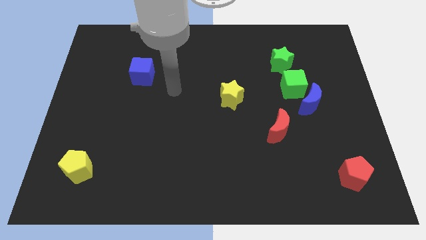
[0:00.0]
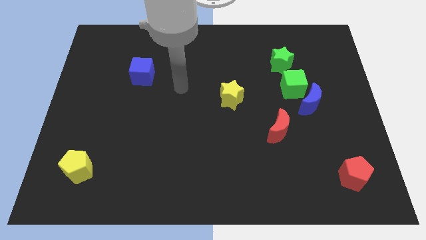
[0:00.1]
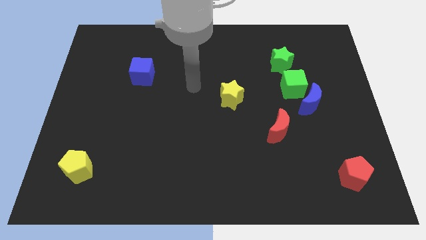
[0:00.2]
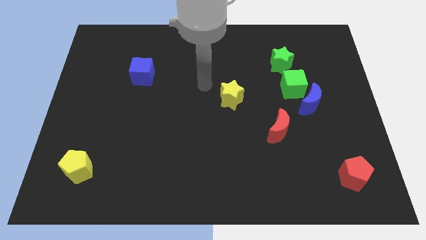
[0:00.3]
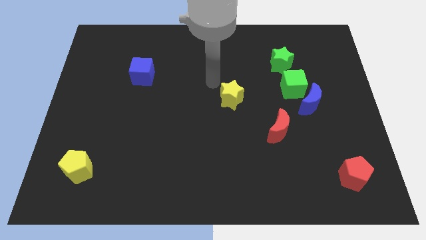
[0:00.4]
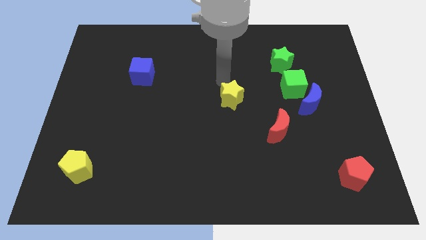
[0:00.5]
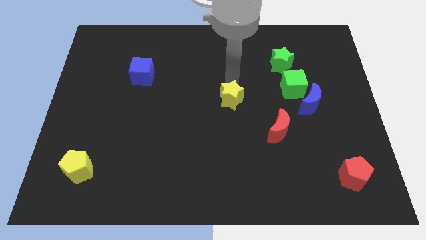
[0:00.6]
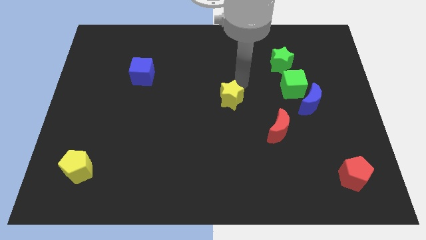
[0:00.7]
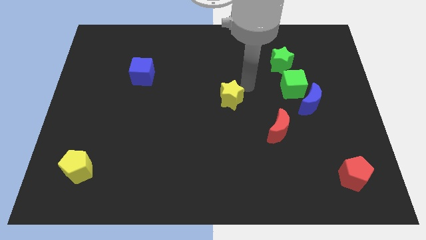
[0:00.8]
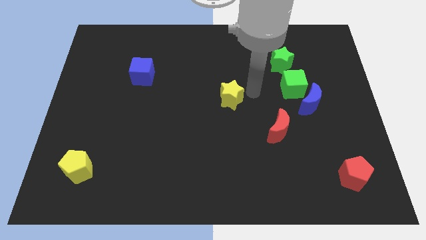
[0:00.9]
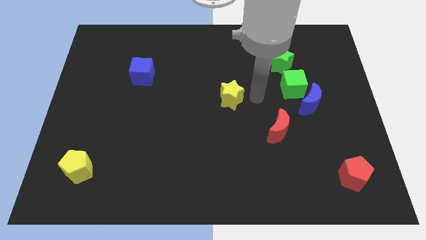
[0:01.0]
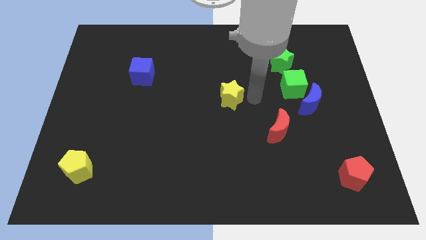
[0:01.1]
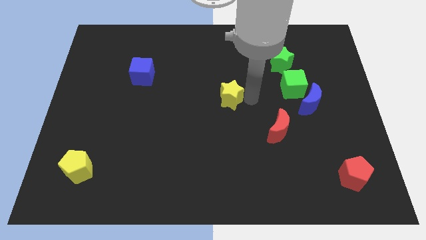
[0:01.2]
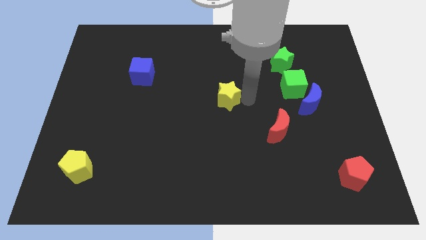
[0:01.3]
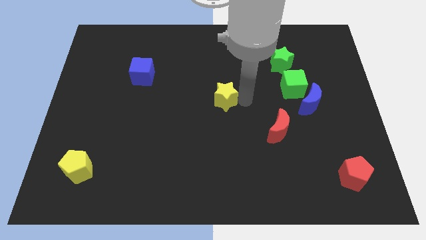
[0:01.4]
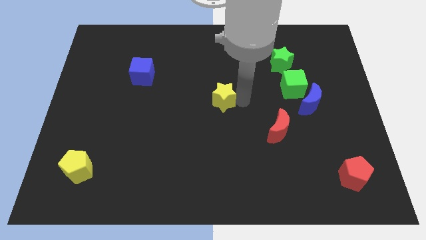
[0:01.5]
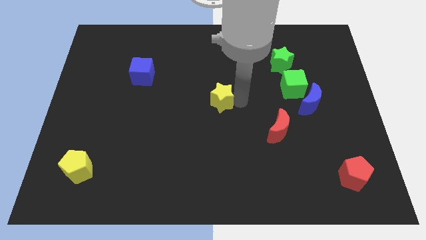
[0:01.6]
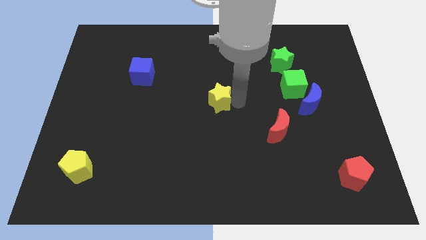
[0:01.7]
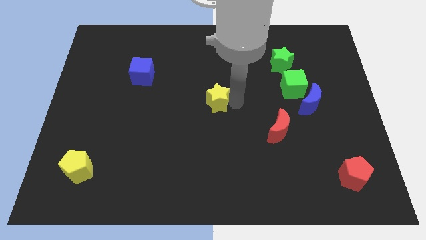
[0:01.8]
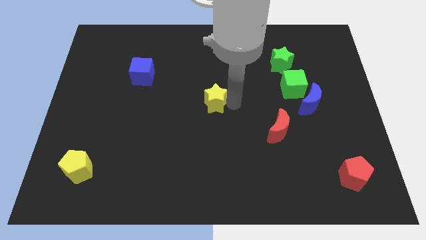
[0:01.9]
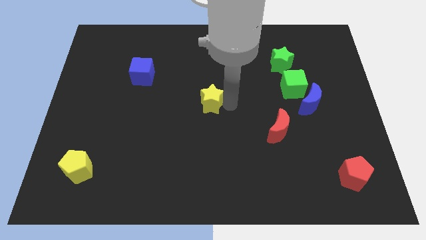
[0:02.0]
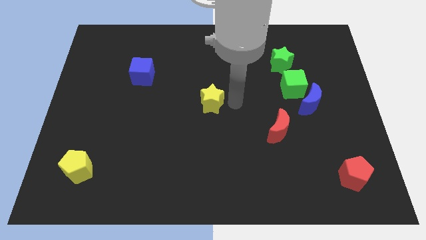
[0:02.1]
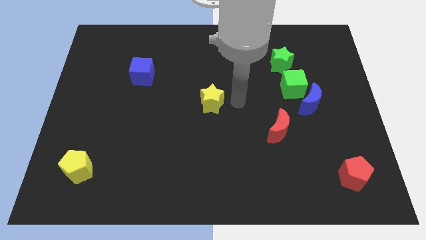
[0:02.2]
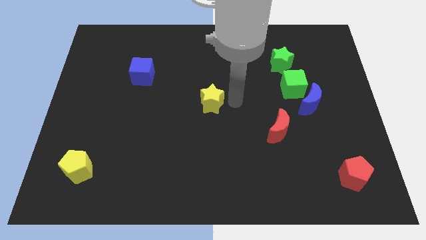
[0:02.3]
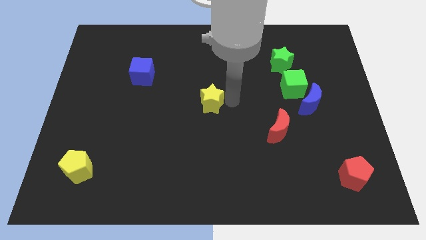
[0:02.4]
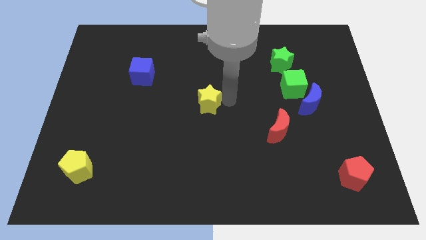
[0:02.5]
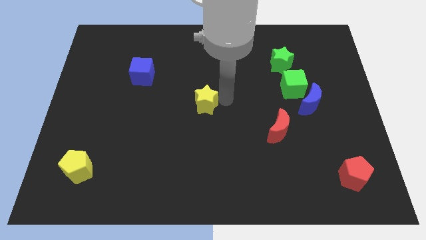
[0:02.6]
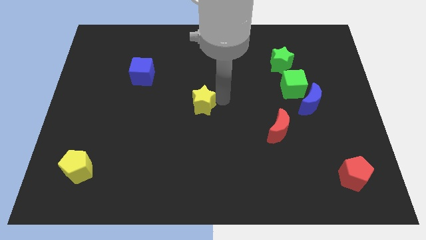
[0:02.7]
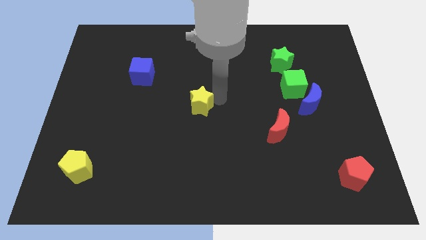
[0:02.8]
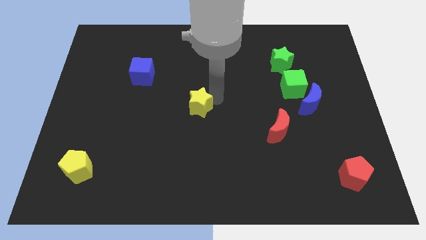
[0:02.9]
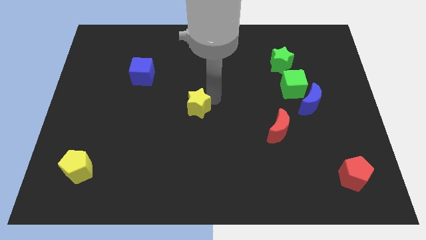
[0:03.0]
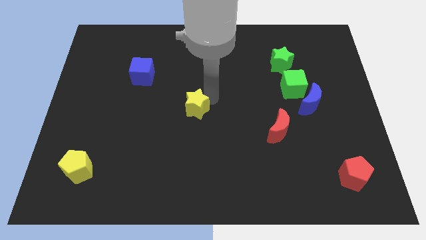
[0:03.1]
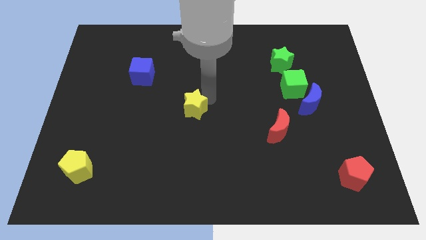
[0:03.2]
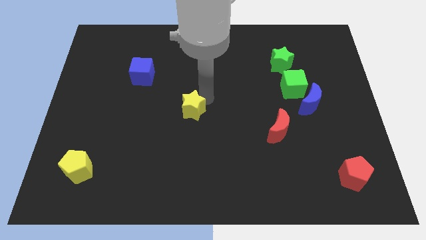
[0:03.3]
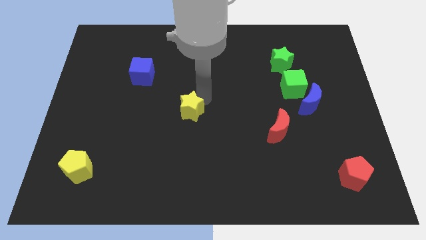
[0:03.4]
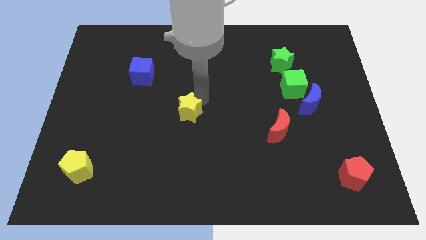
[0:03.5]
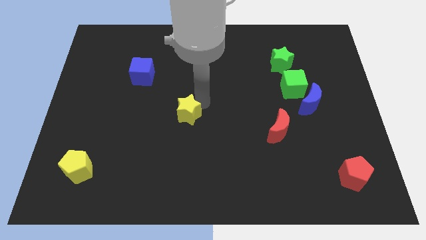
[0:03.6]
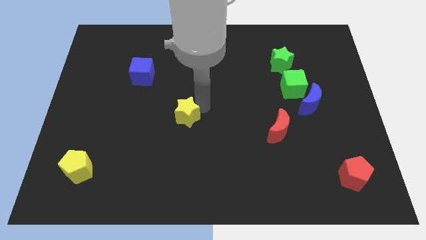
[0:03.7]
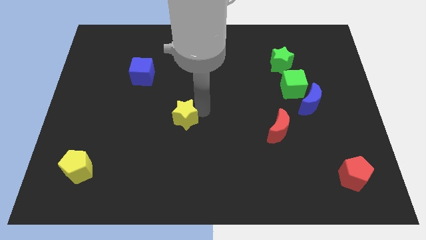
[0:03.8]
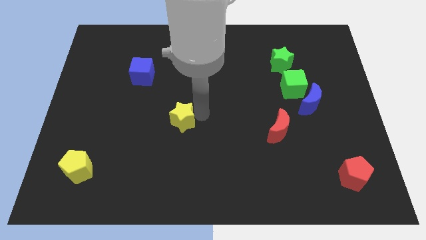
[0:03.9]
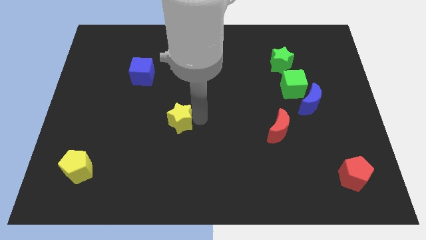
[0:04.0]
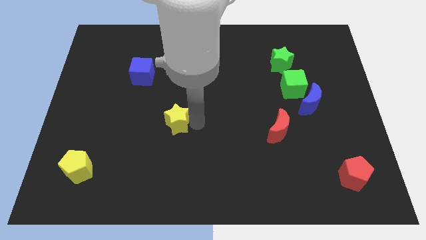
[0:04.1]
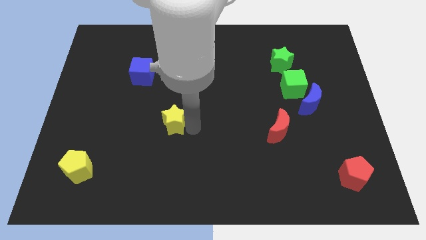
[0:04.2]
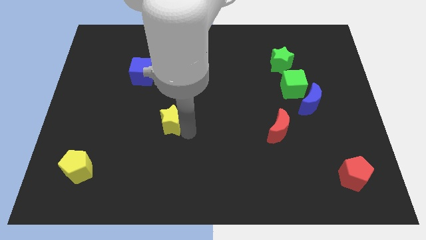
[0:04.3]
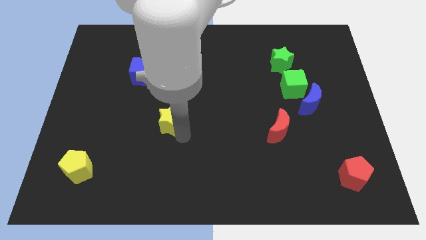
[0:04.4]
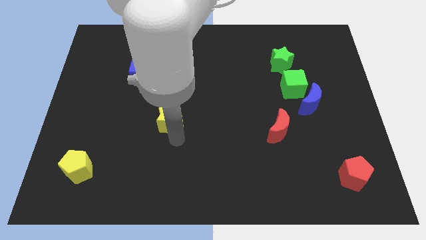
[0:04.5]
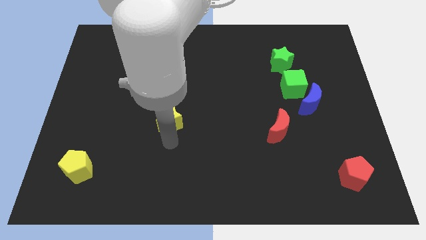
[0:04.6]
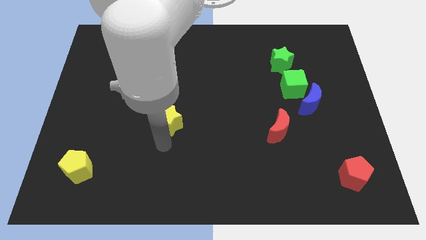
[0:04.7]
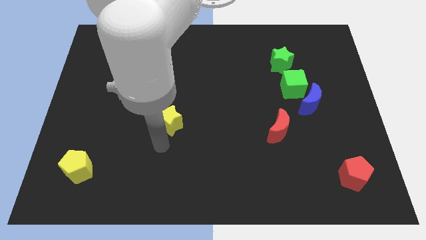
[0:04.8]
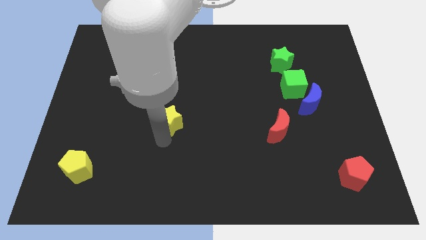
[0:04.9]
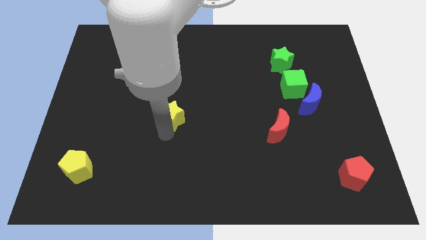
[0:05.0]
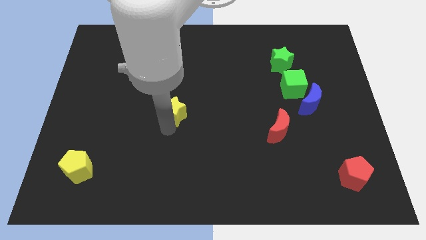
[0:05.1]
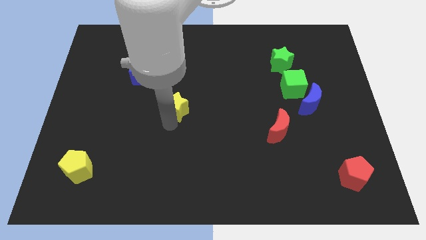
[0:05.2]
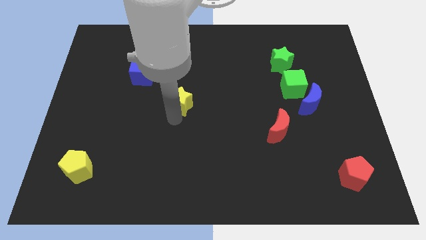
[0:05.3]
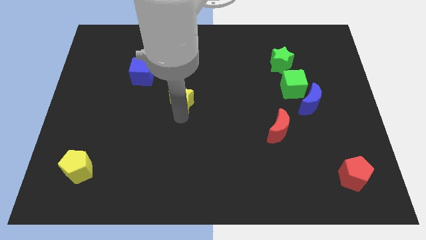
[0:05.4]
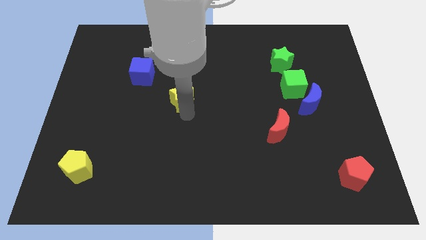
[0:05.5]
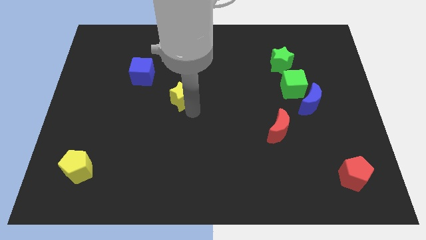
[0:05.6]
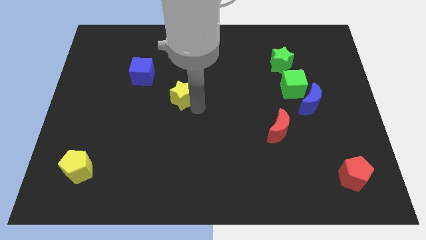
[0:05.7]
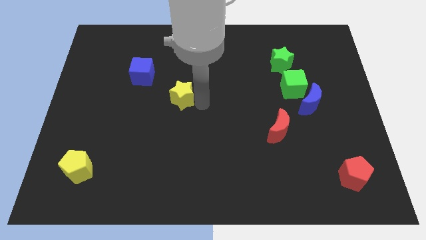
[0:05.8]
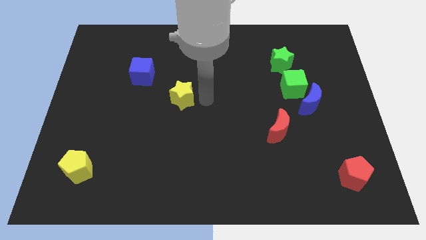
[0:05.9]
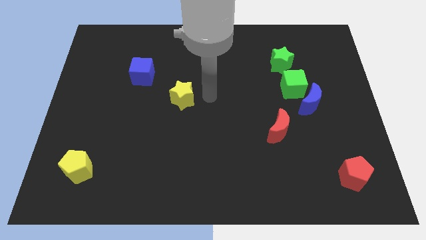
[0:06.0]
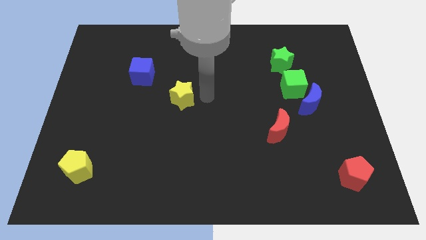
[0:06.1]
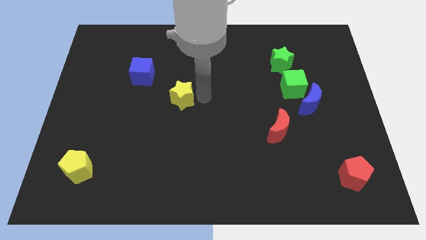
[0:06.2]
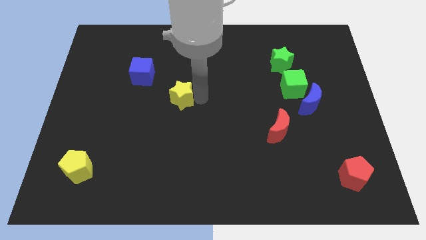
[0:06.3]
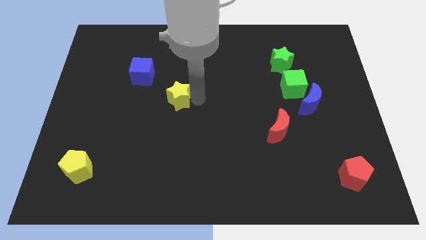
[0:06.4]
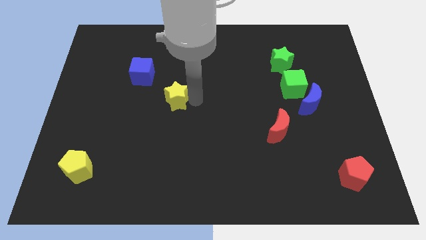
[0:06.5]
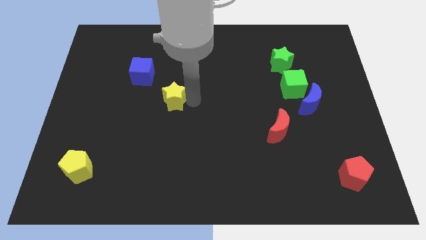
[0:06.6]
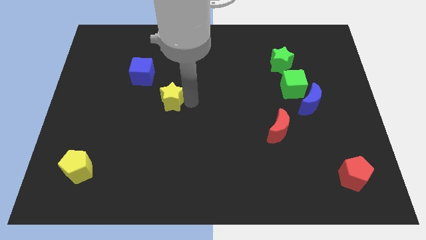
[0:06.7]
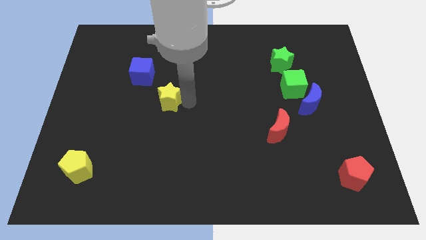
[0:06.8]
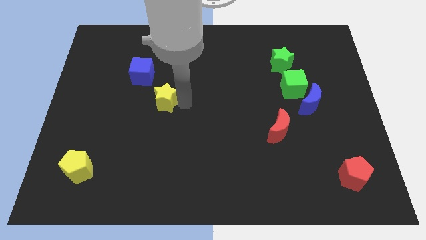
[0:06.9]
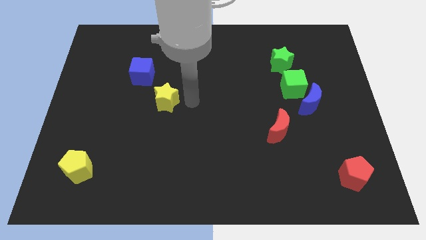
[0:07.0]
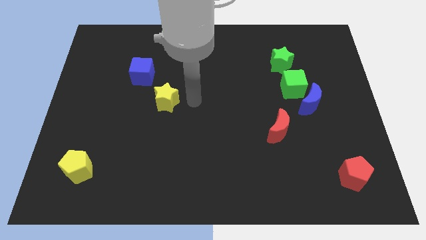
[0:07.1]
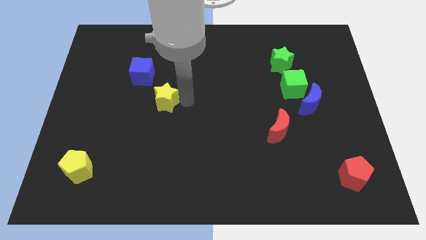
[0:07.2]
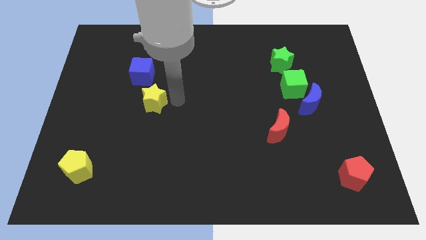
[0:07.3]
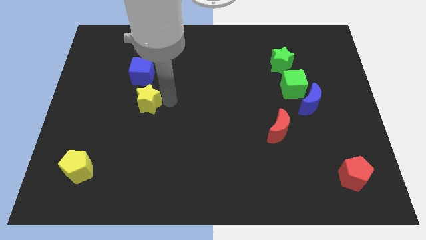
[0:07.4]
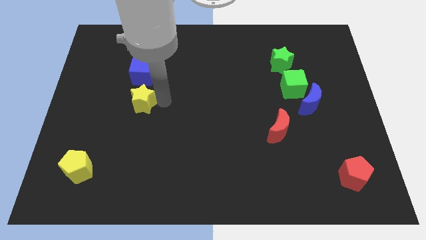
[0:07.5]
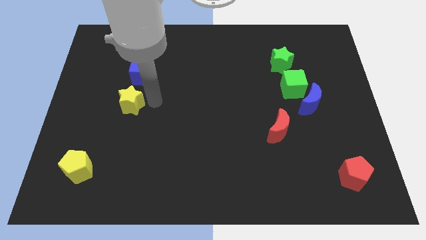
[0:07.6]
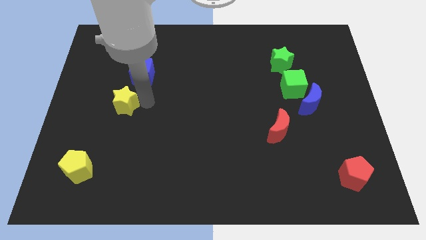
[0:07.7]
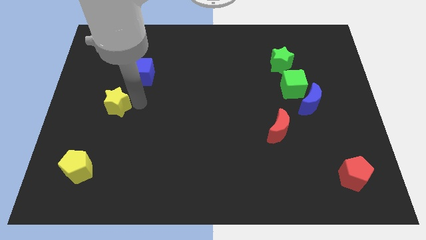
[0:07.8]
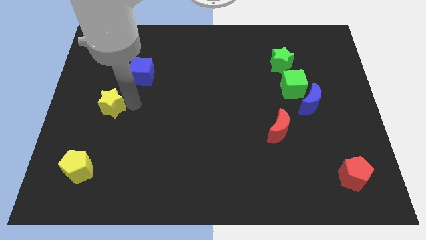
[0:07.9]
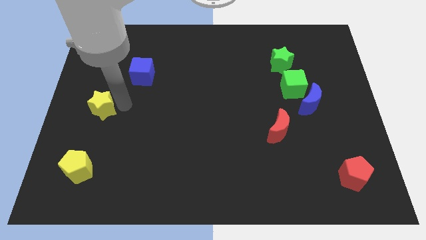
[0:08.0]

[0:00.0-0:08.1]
move the yellow star to the left side of the board
